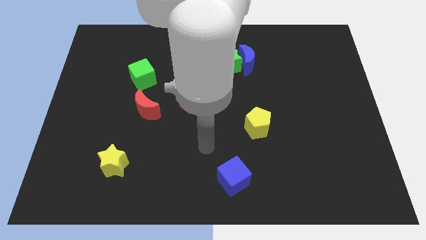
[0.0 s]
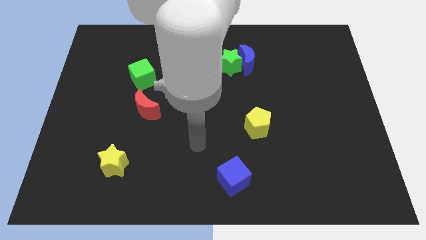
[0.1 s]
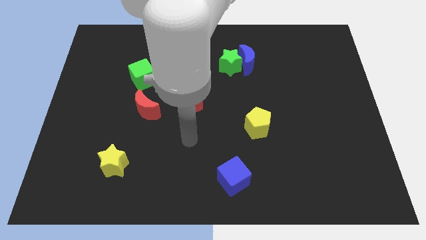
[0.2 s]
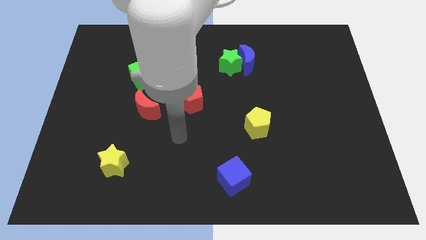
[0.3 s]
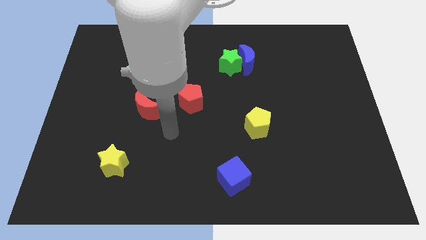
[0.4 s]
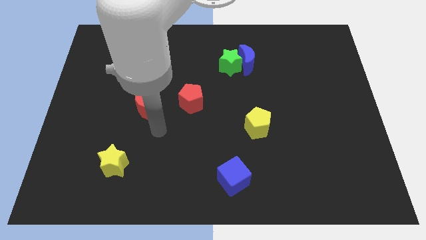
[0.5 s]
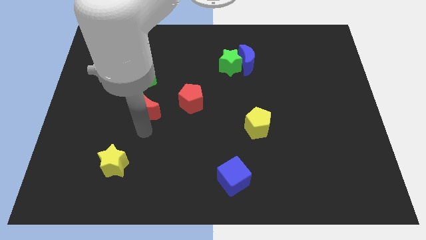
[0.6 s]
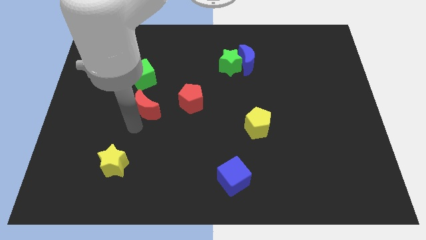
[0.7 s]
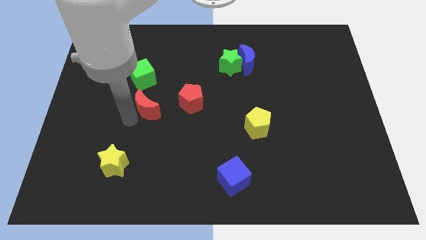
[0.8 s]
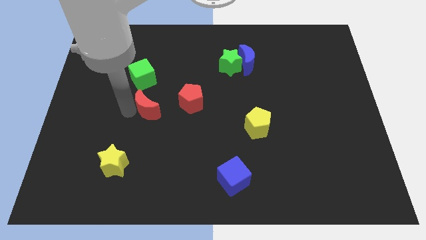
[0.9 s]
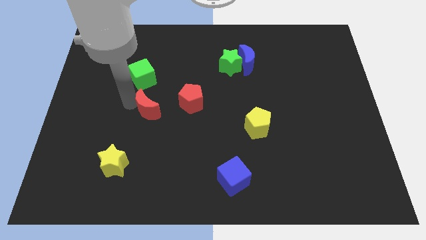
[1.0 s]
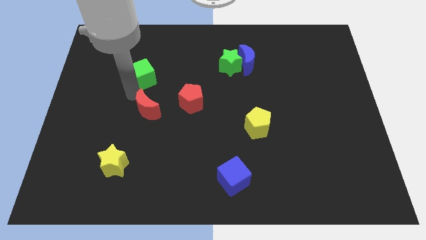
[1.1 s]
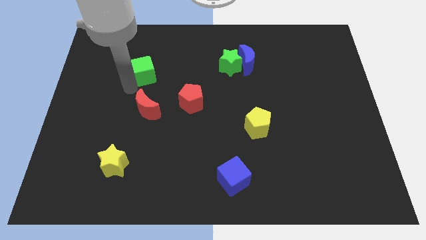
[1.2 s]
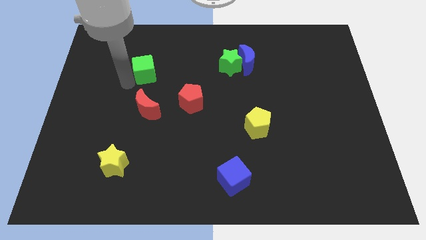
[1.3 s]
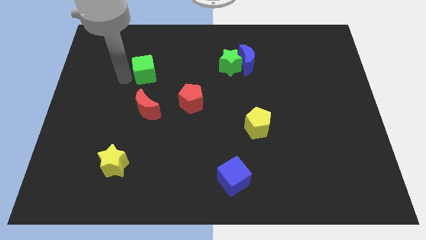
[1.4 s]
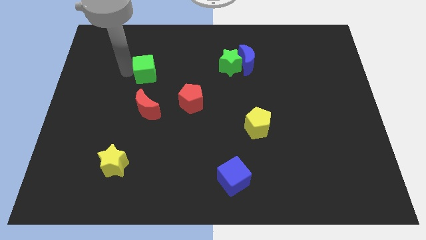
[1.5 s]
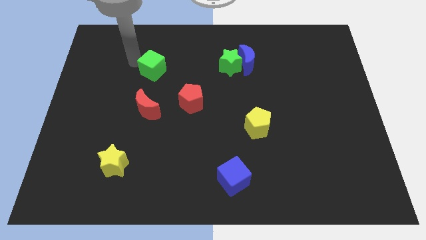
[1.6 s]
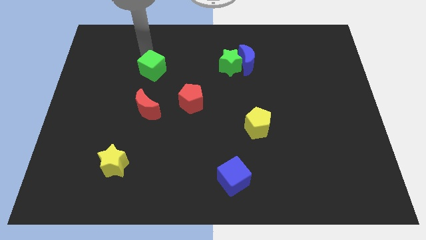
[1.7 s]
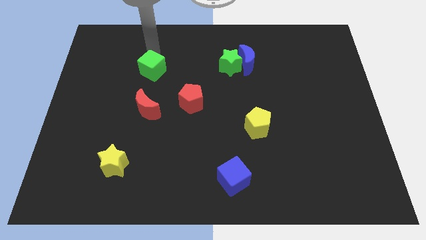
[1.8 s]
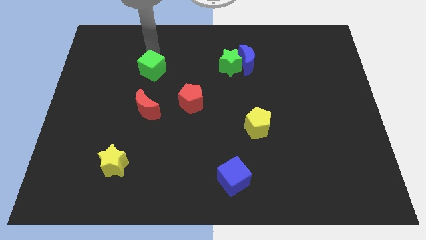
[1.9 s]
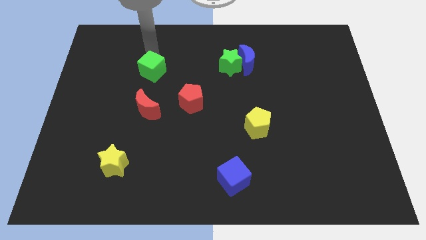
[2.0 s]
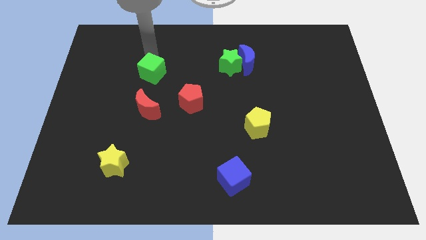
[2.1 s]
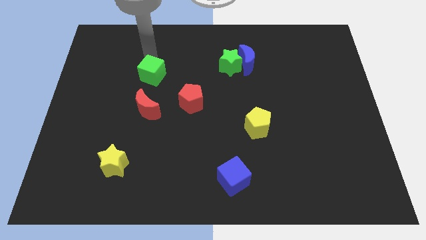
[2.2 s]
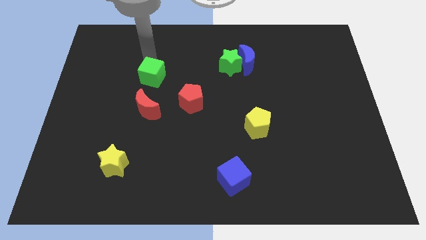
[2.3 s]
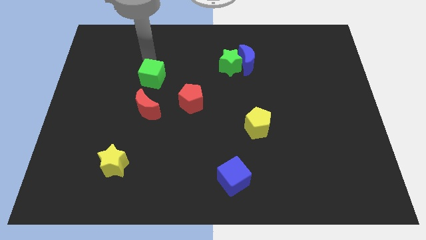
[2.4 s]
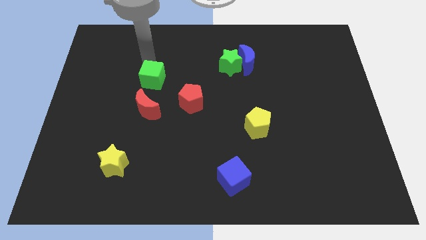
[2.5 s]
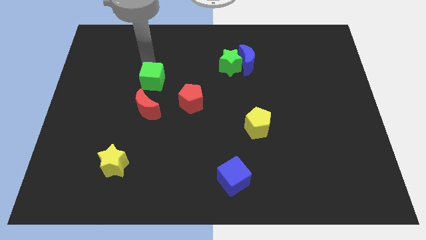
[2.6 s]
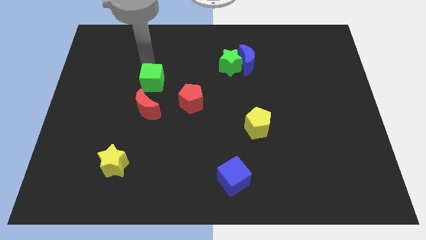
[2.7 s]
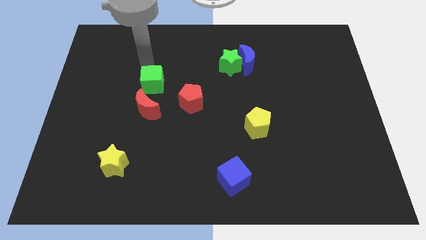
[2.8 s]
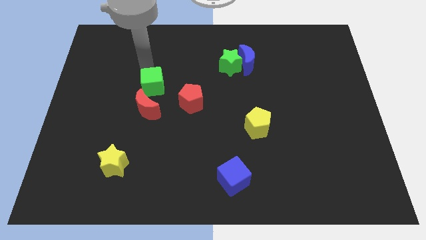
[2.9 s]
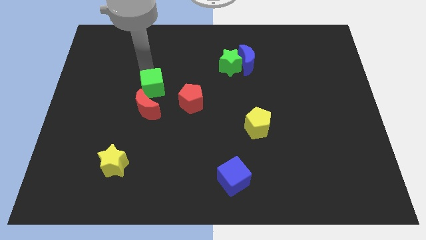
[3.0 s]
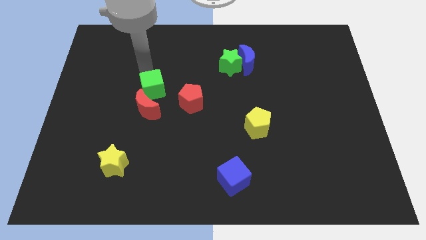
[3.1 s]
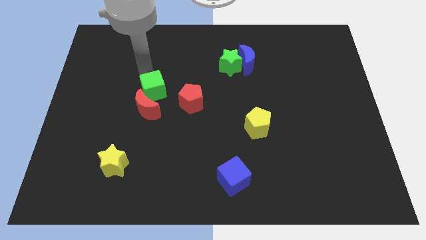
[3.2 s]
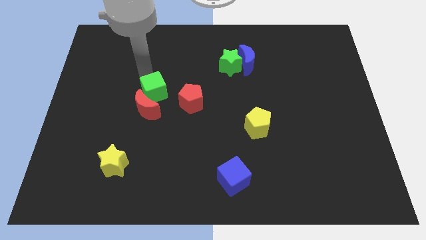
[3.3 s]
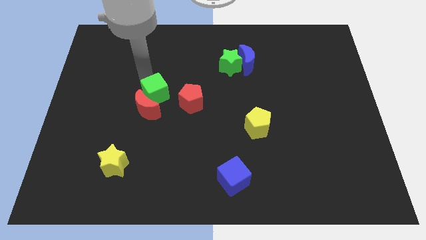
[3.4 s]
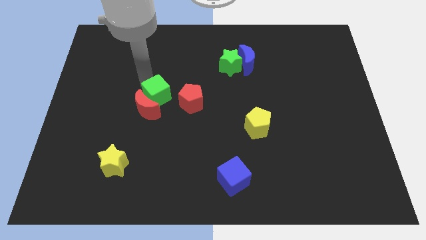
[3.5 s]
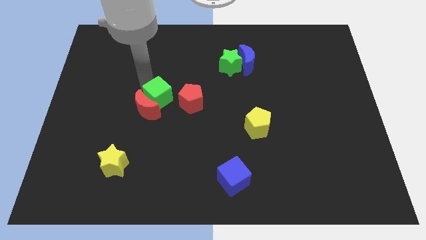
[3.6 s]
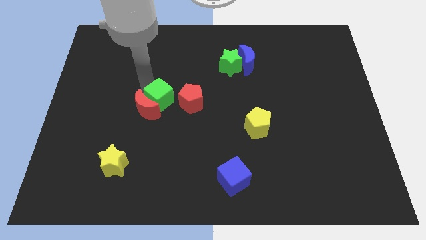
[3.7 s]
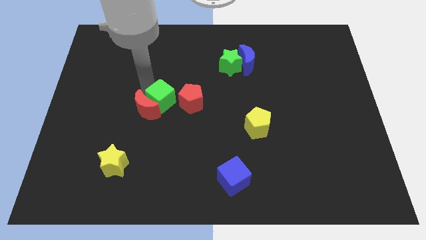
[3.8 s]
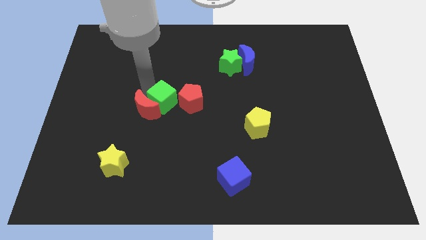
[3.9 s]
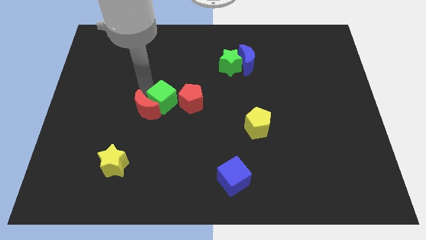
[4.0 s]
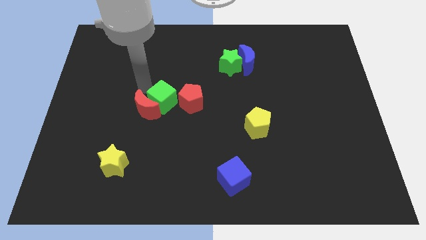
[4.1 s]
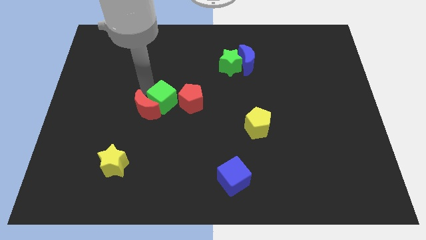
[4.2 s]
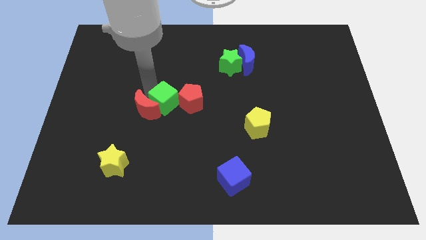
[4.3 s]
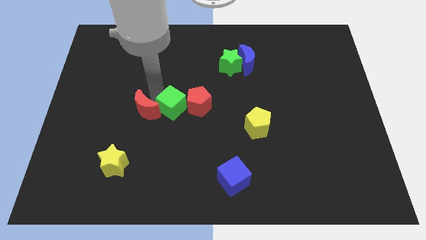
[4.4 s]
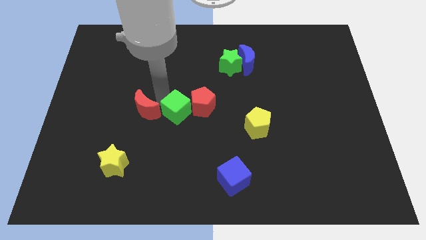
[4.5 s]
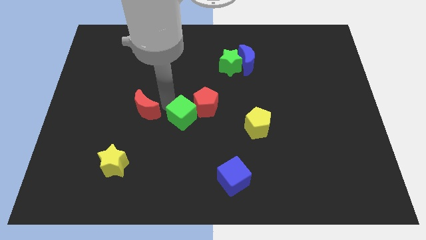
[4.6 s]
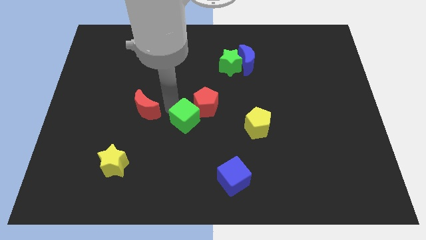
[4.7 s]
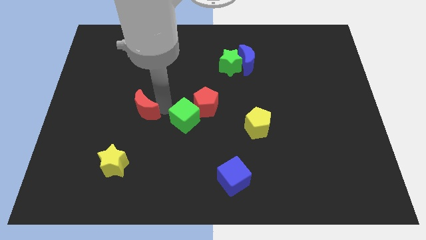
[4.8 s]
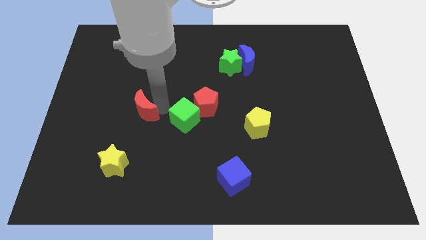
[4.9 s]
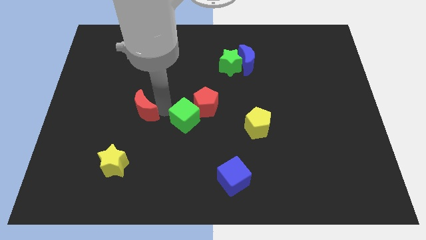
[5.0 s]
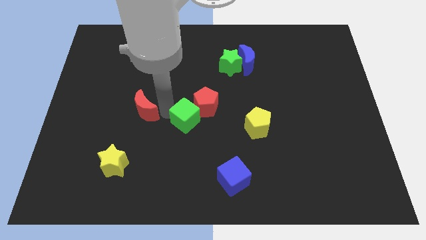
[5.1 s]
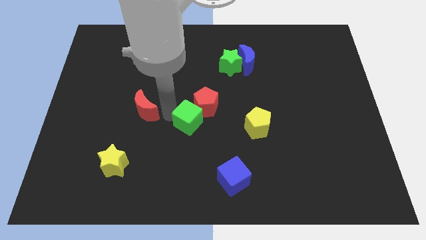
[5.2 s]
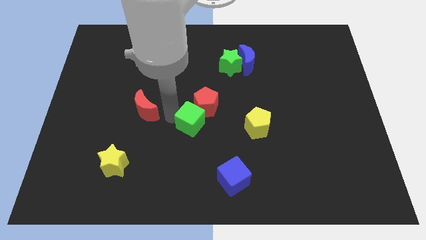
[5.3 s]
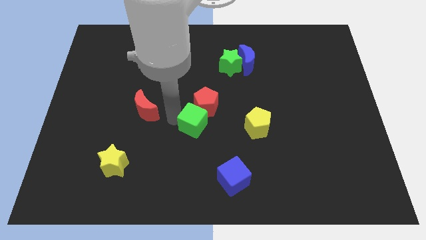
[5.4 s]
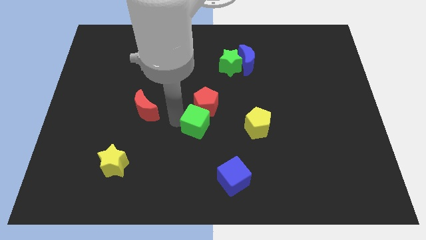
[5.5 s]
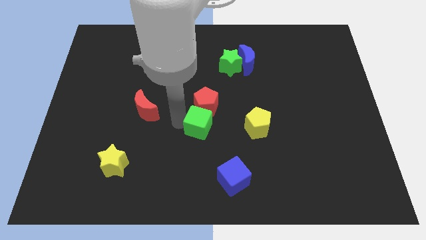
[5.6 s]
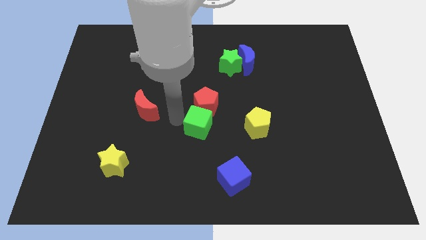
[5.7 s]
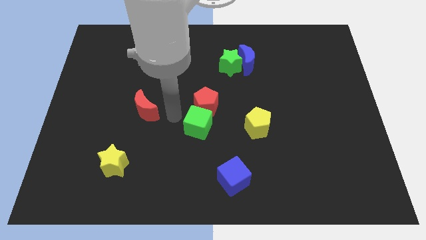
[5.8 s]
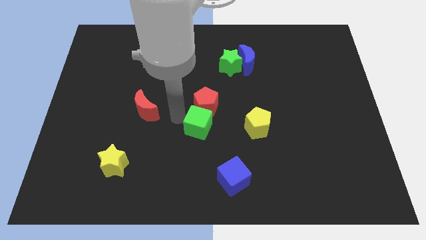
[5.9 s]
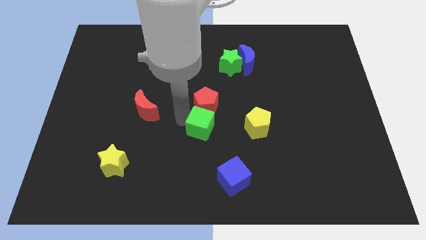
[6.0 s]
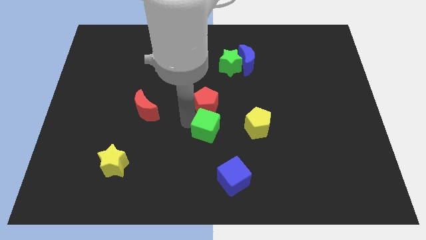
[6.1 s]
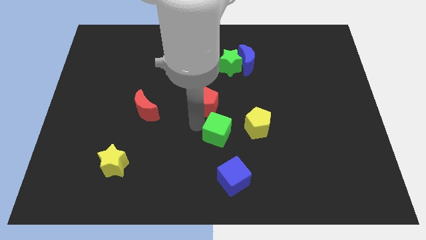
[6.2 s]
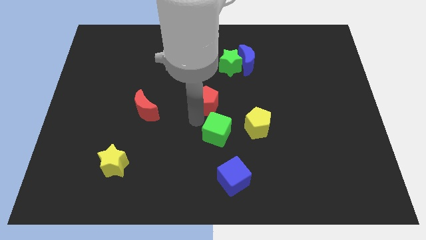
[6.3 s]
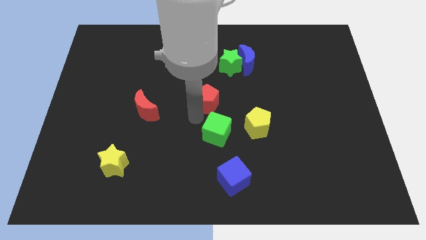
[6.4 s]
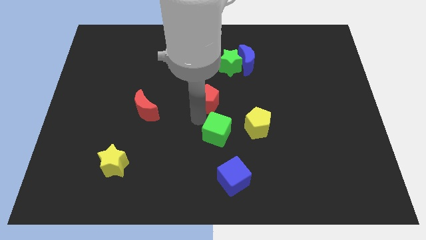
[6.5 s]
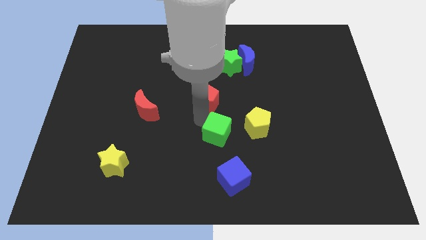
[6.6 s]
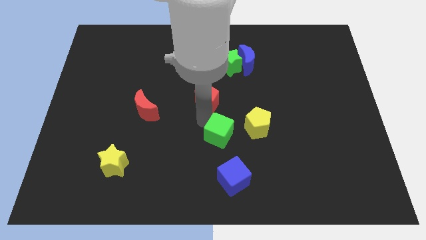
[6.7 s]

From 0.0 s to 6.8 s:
move the green cube to the bottom left side of the yellow pentagon
